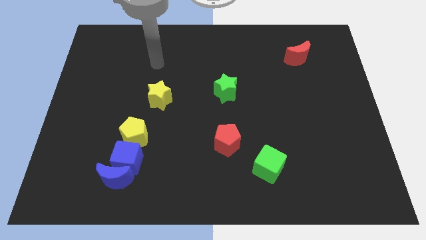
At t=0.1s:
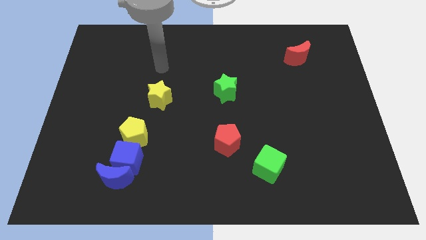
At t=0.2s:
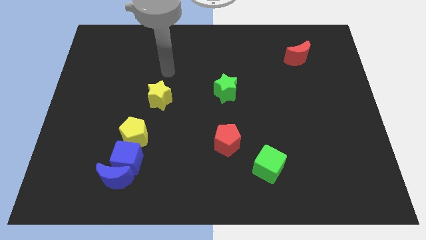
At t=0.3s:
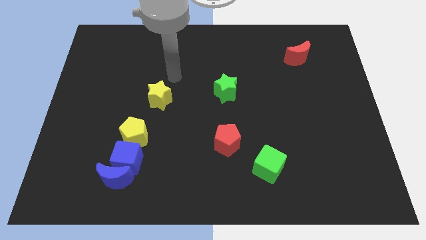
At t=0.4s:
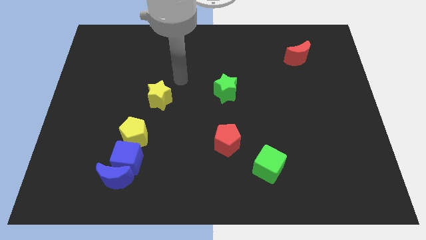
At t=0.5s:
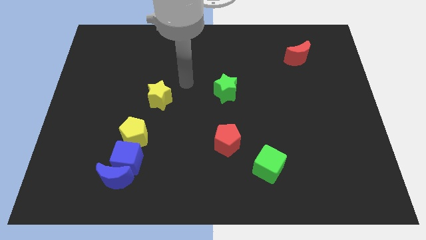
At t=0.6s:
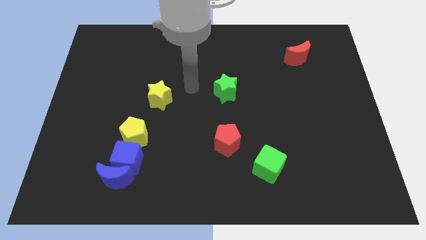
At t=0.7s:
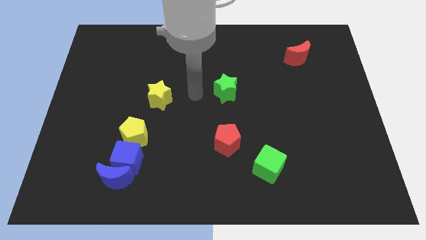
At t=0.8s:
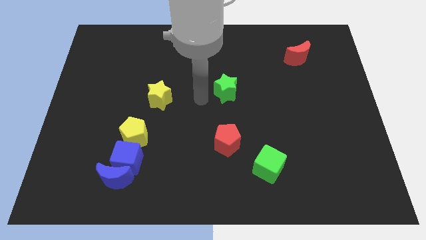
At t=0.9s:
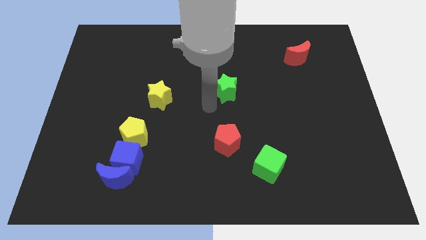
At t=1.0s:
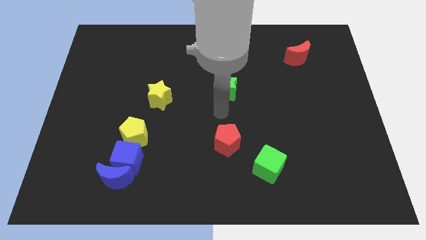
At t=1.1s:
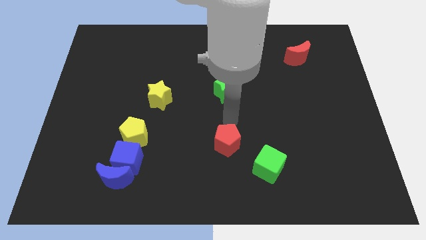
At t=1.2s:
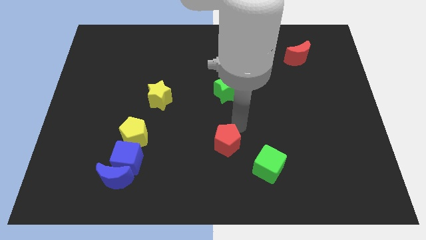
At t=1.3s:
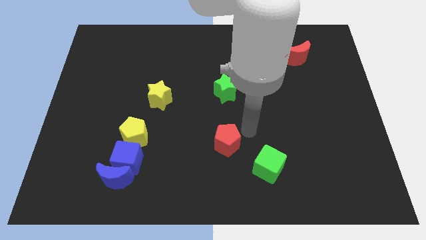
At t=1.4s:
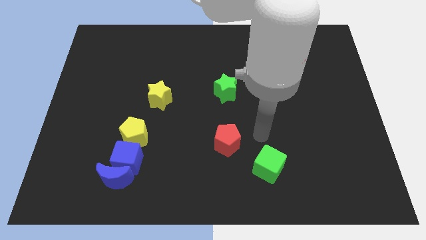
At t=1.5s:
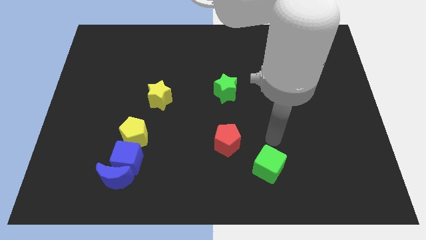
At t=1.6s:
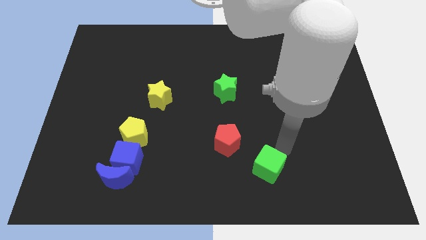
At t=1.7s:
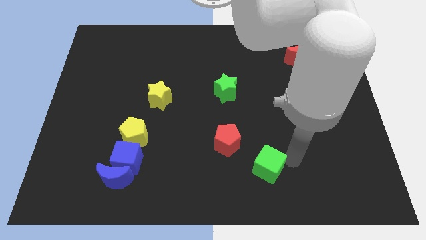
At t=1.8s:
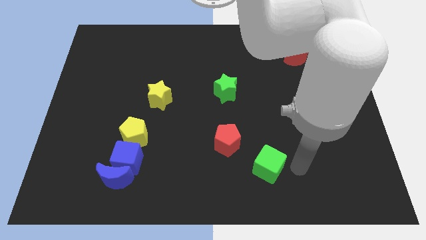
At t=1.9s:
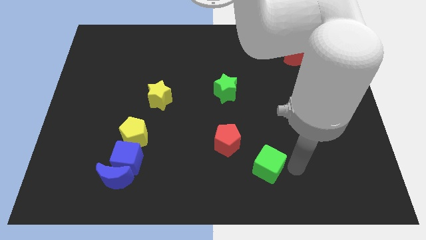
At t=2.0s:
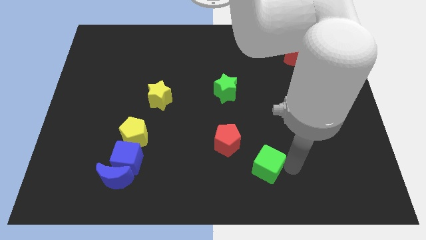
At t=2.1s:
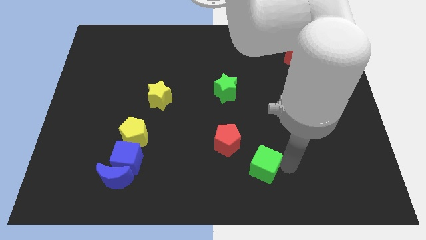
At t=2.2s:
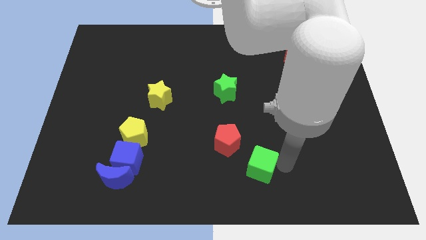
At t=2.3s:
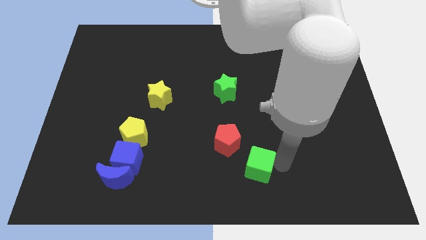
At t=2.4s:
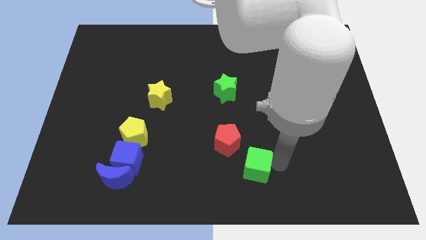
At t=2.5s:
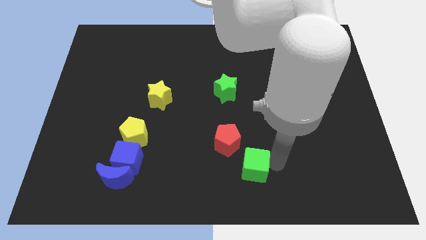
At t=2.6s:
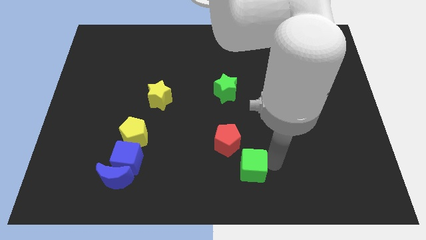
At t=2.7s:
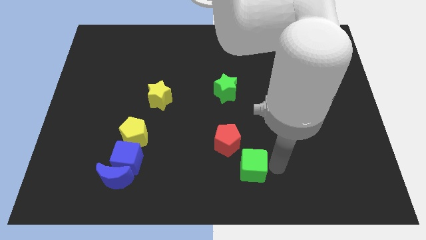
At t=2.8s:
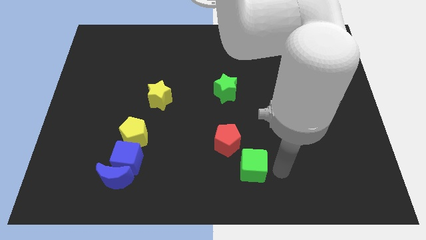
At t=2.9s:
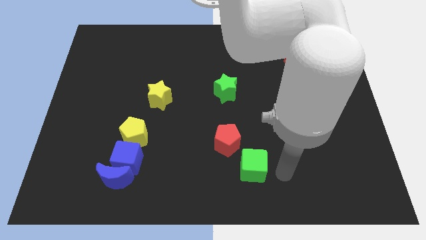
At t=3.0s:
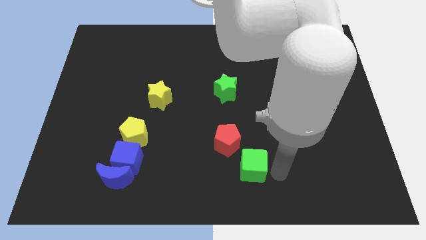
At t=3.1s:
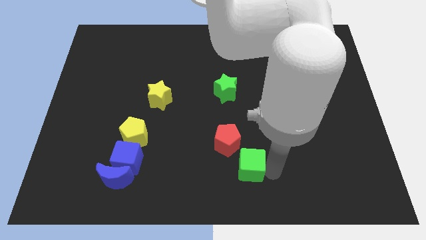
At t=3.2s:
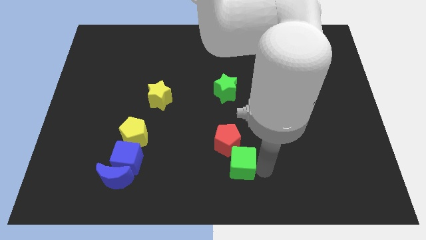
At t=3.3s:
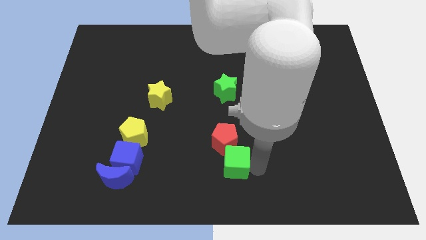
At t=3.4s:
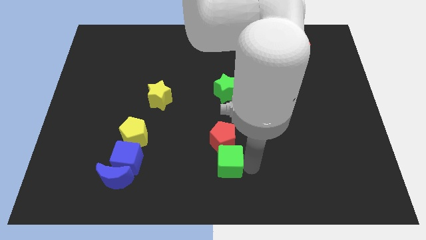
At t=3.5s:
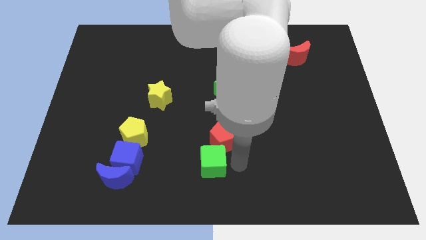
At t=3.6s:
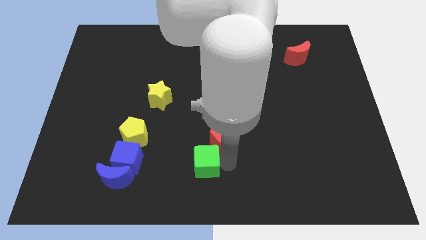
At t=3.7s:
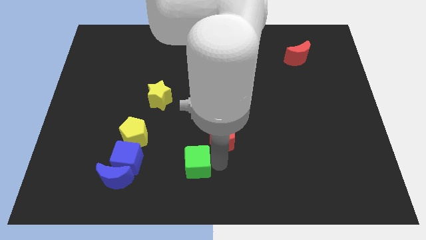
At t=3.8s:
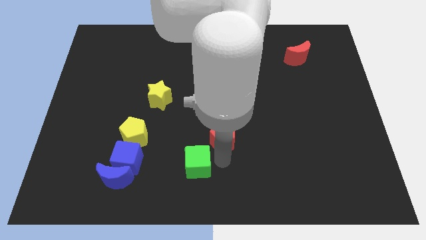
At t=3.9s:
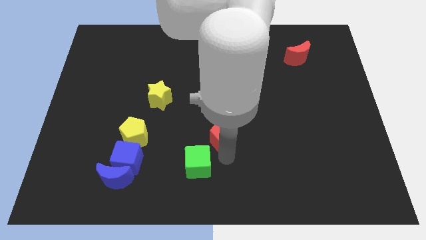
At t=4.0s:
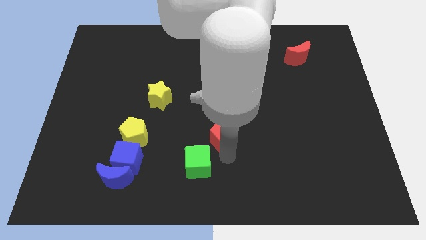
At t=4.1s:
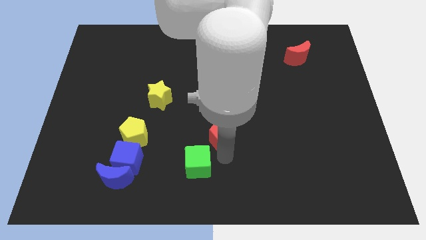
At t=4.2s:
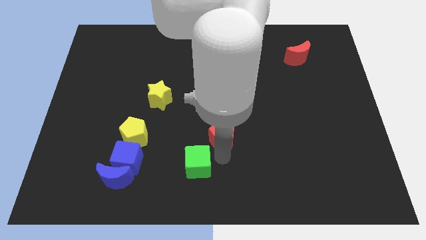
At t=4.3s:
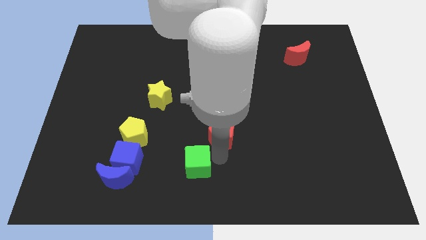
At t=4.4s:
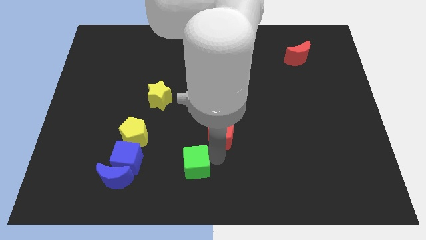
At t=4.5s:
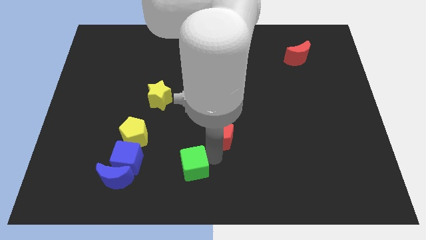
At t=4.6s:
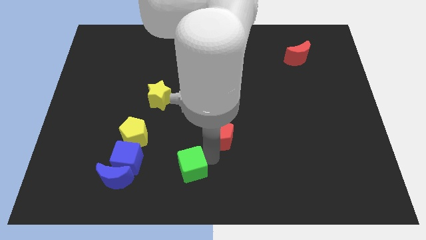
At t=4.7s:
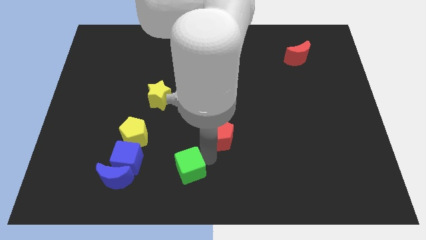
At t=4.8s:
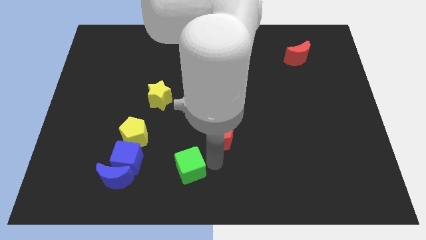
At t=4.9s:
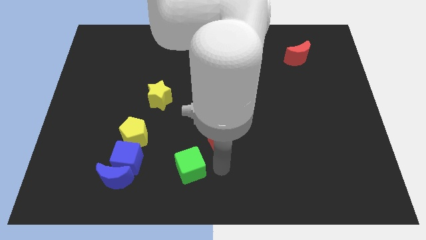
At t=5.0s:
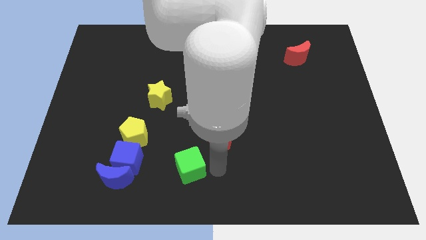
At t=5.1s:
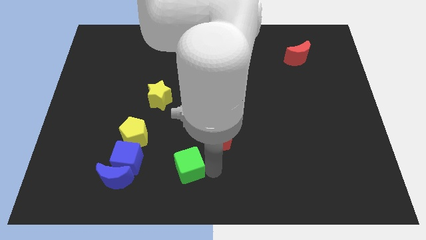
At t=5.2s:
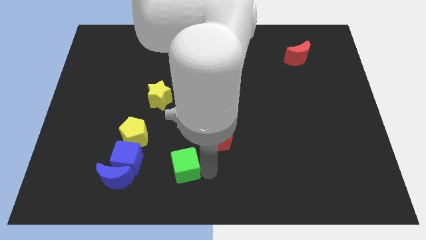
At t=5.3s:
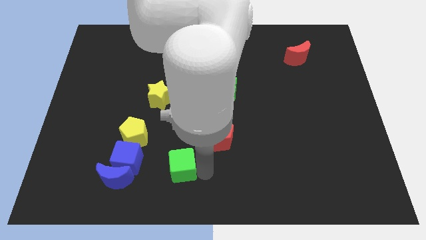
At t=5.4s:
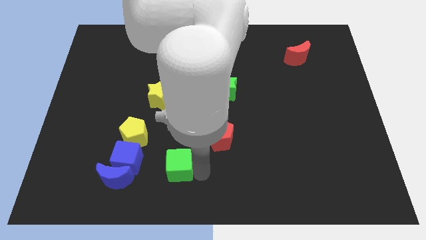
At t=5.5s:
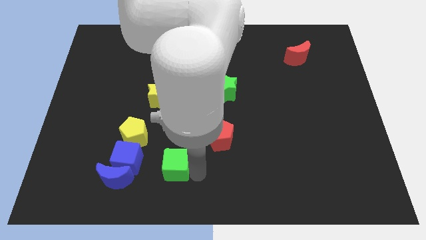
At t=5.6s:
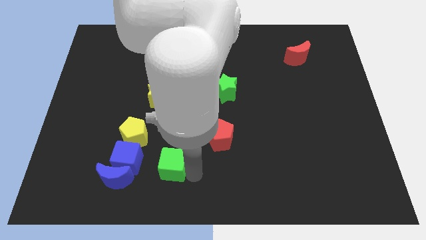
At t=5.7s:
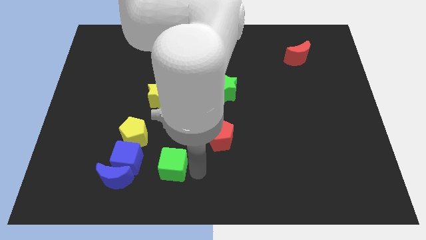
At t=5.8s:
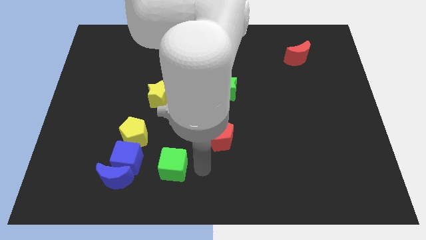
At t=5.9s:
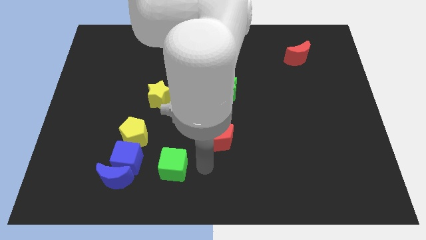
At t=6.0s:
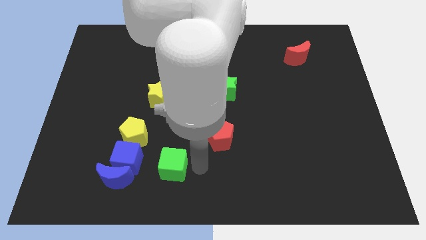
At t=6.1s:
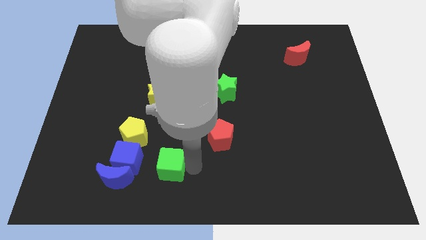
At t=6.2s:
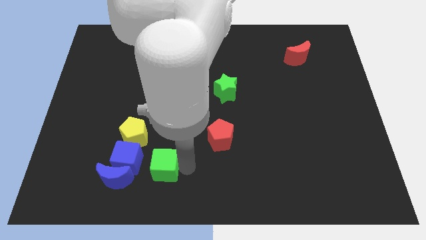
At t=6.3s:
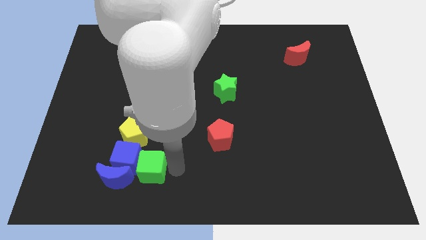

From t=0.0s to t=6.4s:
slide the green cube next to the blue cube

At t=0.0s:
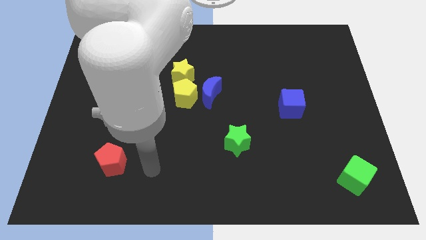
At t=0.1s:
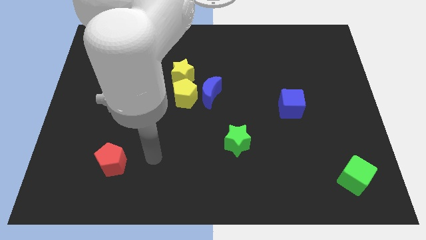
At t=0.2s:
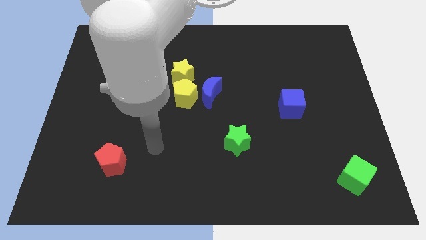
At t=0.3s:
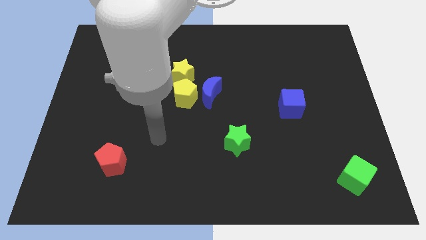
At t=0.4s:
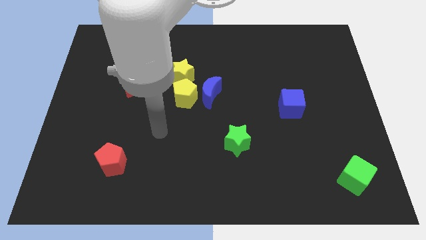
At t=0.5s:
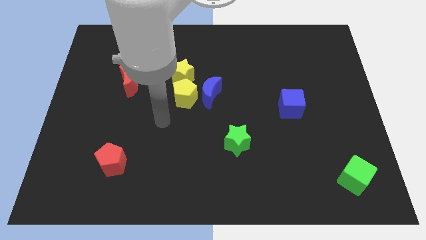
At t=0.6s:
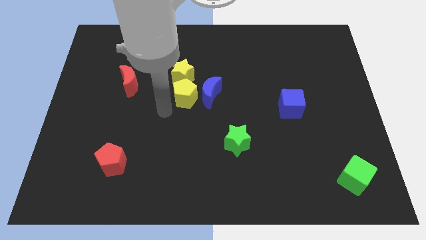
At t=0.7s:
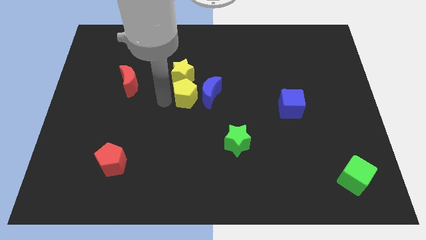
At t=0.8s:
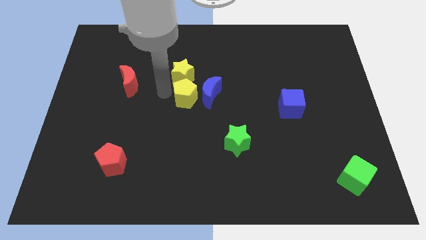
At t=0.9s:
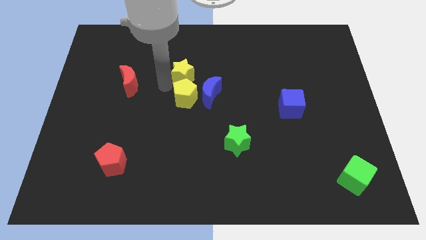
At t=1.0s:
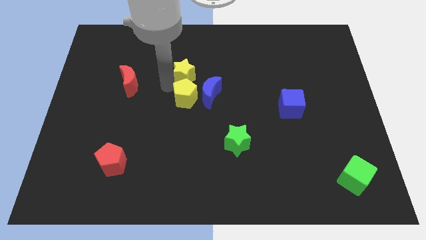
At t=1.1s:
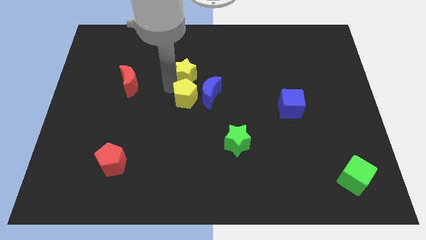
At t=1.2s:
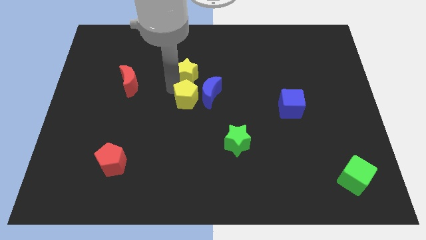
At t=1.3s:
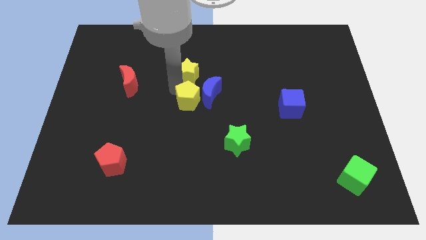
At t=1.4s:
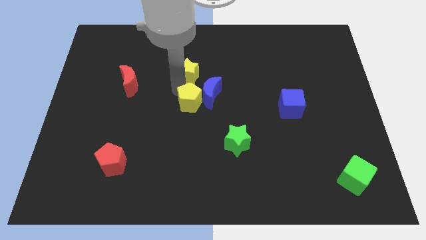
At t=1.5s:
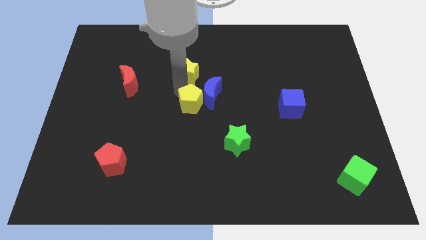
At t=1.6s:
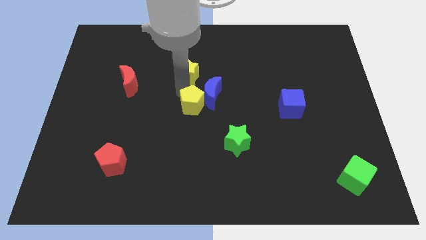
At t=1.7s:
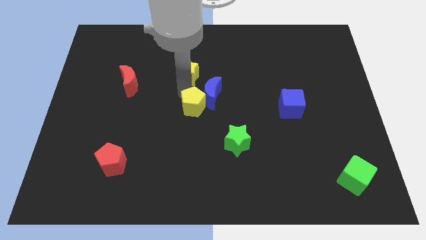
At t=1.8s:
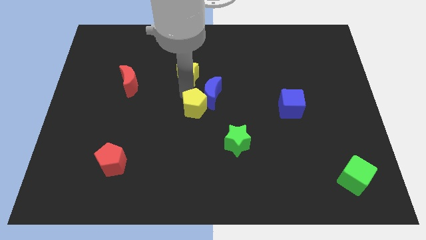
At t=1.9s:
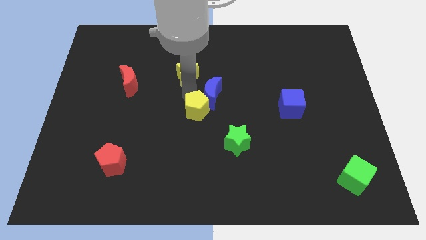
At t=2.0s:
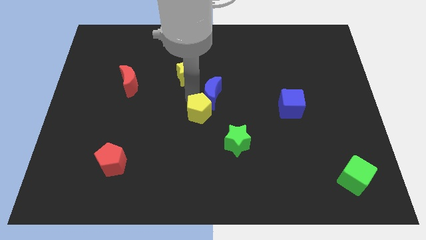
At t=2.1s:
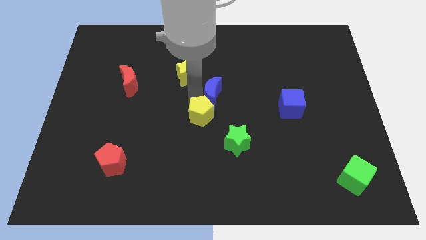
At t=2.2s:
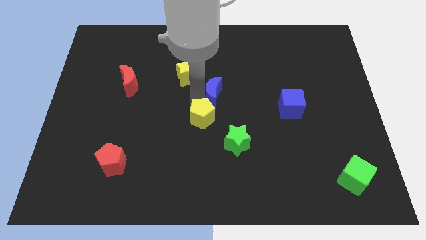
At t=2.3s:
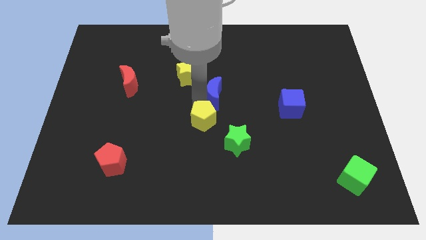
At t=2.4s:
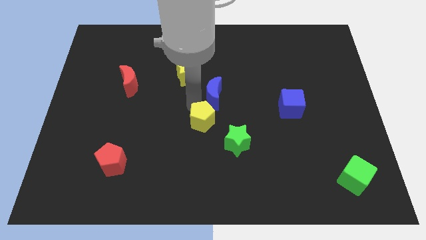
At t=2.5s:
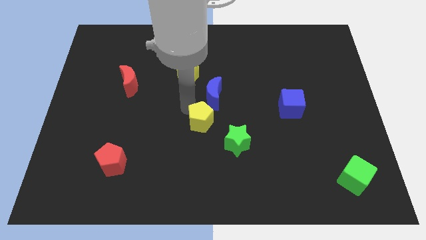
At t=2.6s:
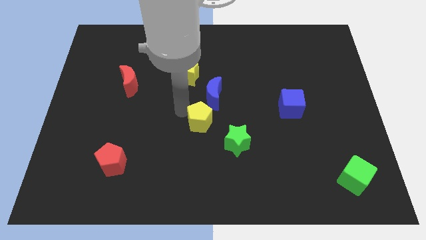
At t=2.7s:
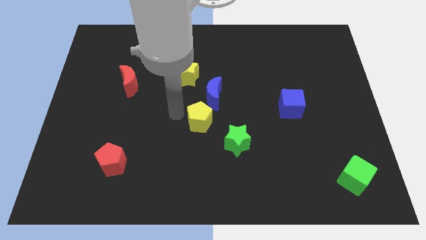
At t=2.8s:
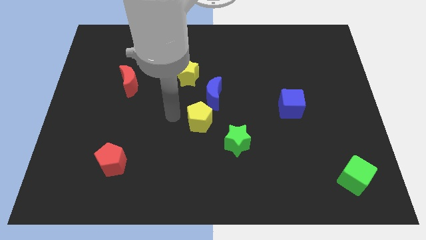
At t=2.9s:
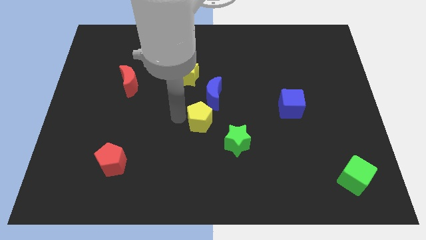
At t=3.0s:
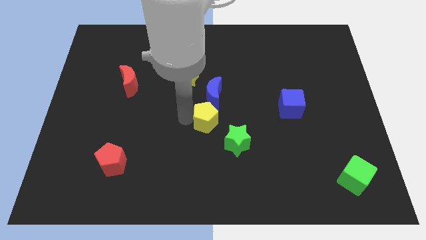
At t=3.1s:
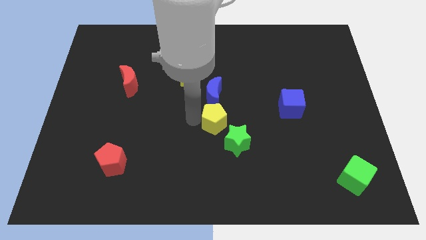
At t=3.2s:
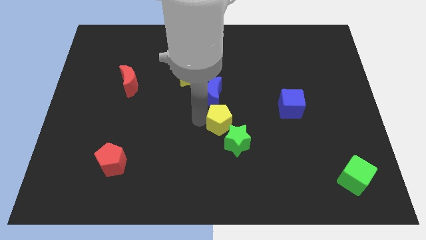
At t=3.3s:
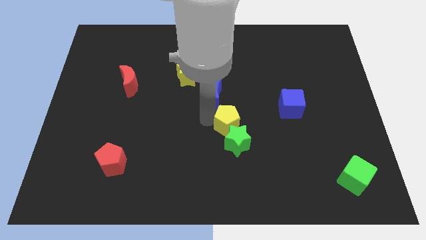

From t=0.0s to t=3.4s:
move the yellow pentagon next to the green star
